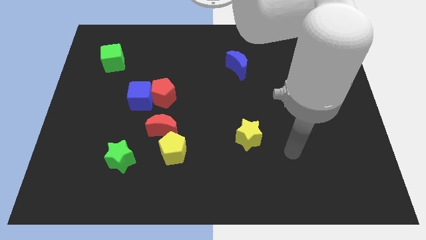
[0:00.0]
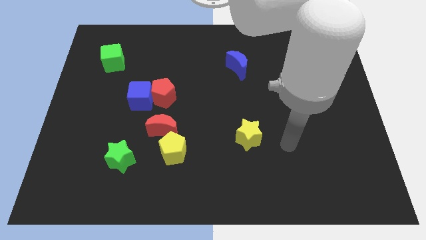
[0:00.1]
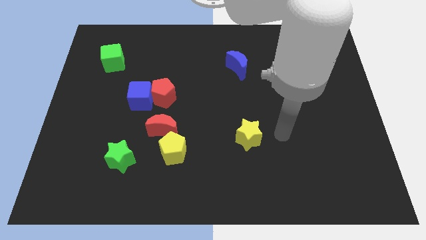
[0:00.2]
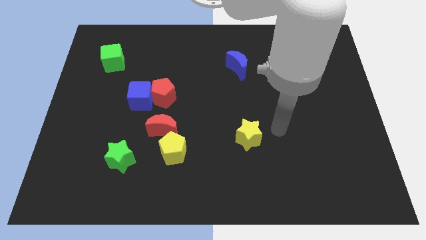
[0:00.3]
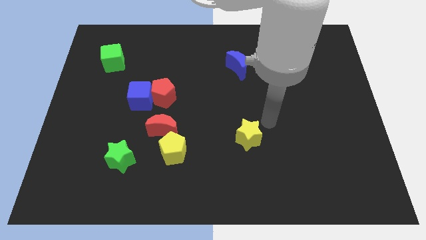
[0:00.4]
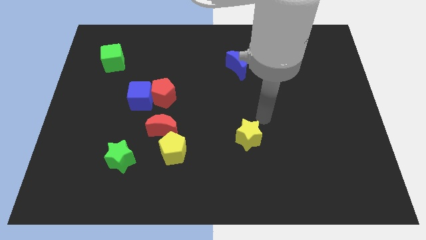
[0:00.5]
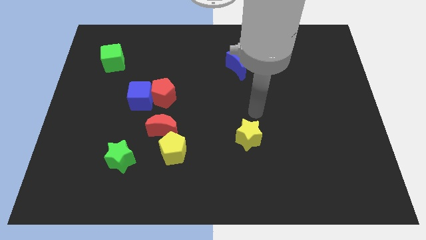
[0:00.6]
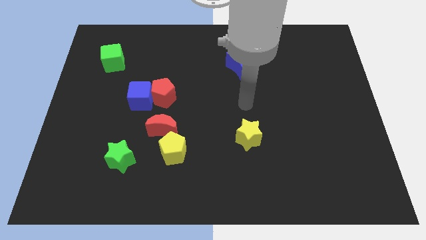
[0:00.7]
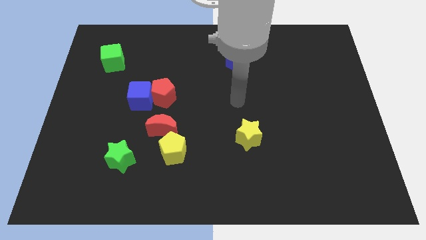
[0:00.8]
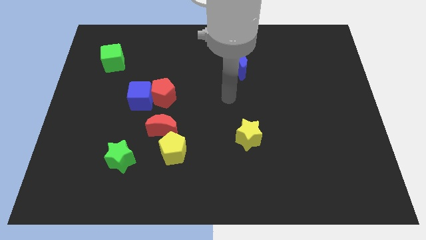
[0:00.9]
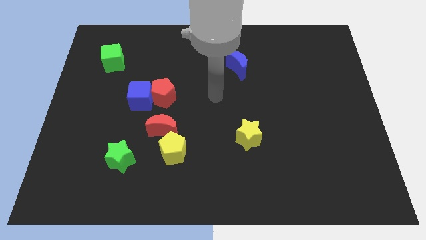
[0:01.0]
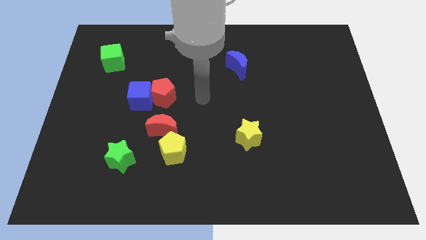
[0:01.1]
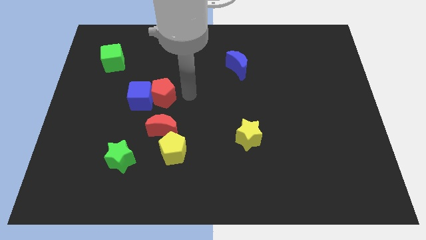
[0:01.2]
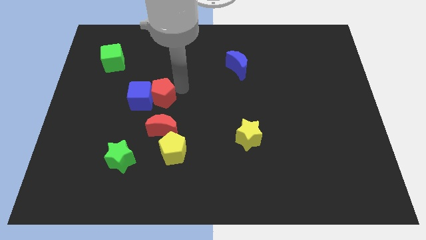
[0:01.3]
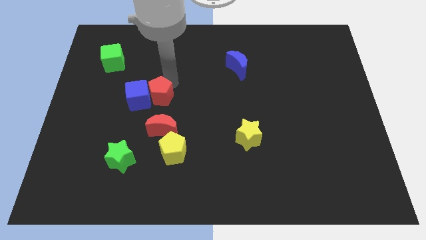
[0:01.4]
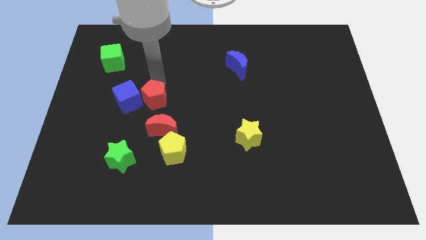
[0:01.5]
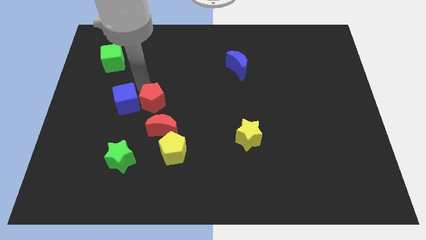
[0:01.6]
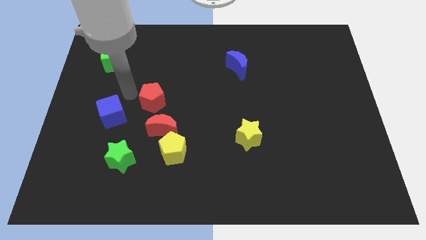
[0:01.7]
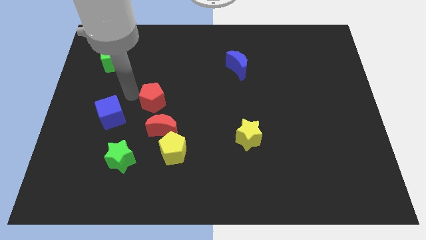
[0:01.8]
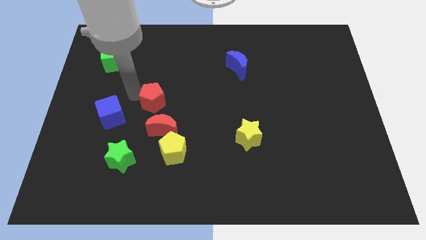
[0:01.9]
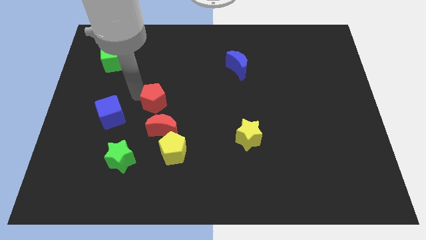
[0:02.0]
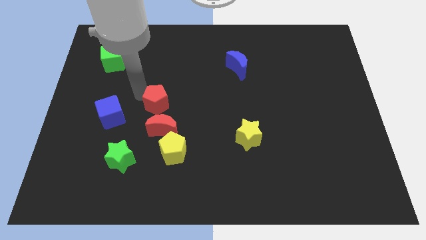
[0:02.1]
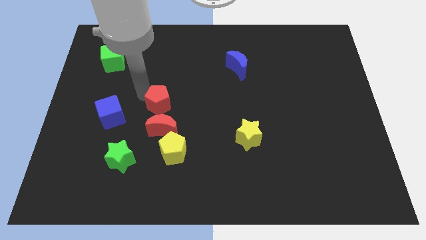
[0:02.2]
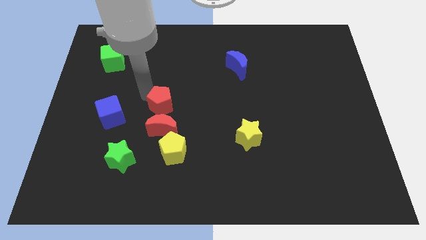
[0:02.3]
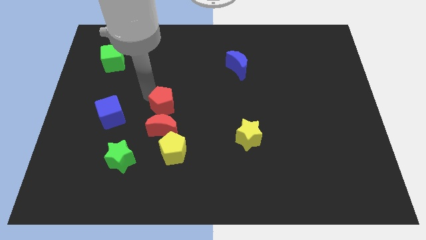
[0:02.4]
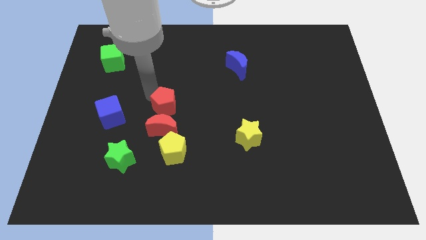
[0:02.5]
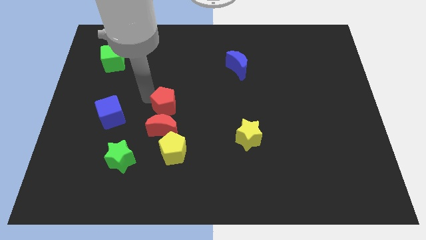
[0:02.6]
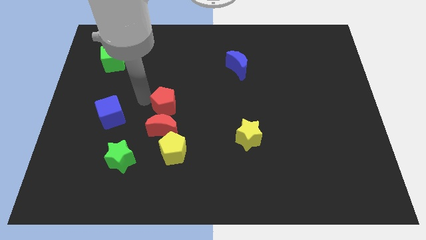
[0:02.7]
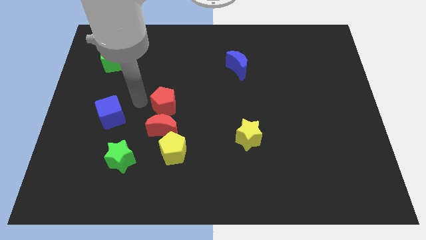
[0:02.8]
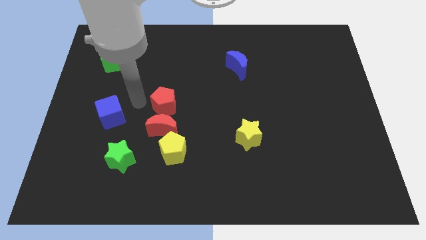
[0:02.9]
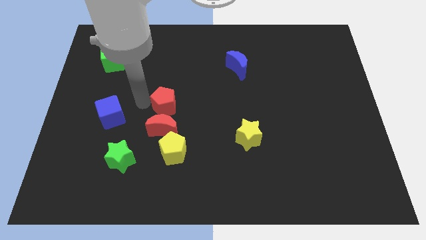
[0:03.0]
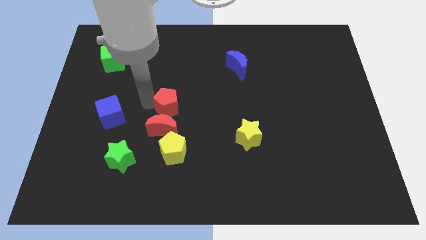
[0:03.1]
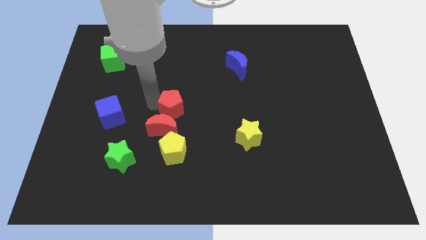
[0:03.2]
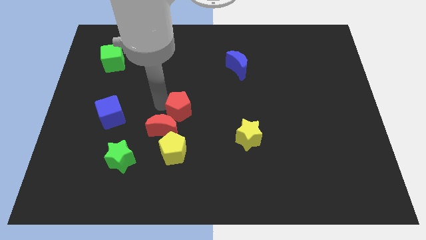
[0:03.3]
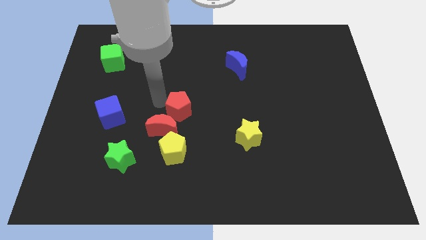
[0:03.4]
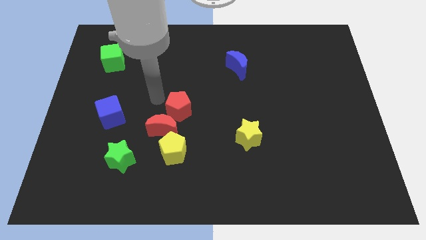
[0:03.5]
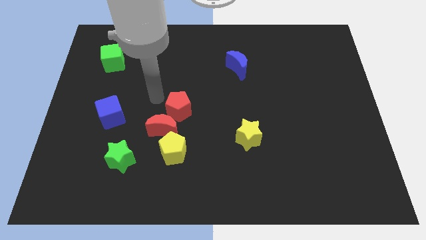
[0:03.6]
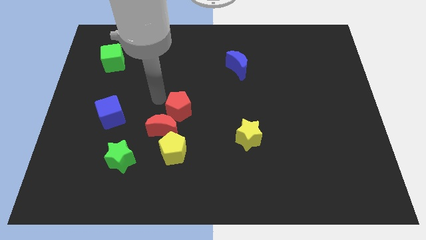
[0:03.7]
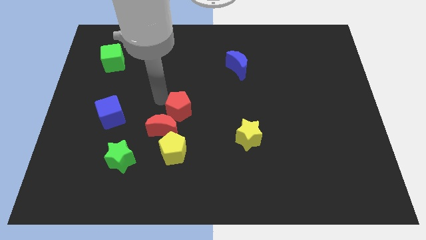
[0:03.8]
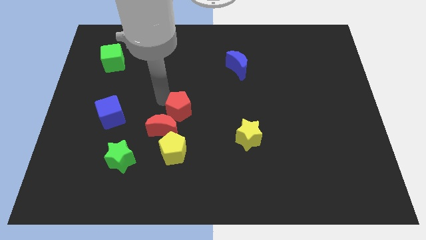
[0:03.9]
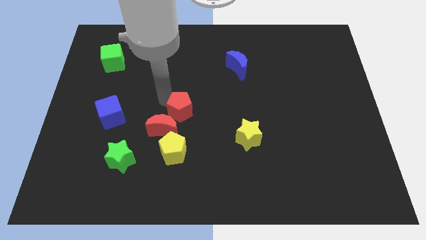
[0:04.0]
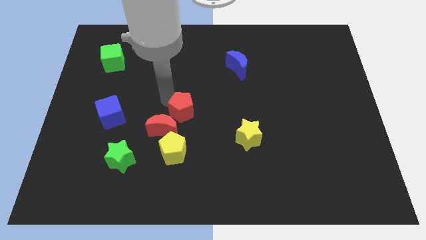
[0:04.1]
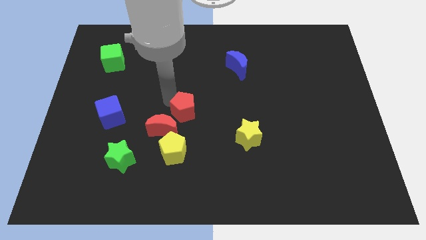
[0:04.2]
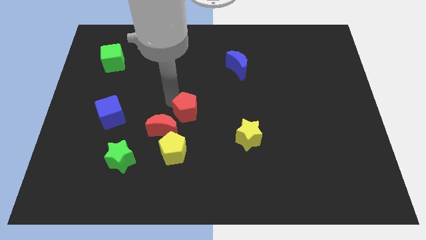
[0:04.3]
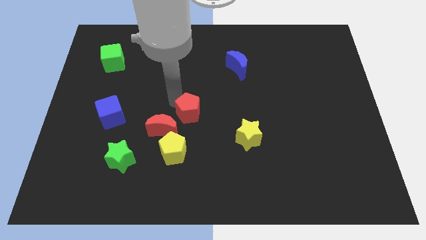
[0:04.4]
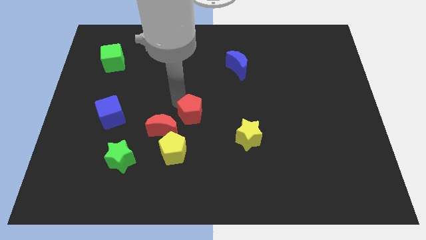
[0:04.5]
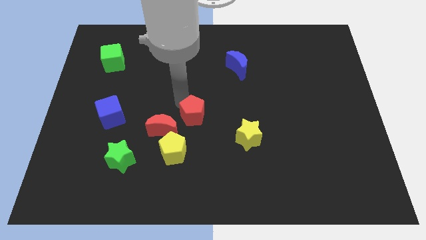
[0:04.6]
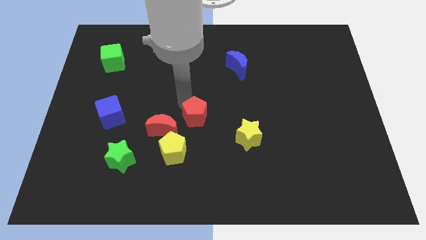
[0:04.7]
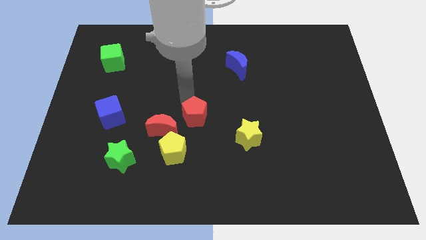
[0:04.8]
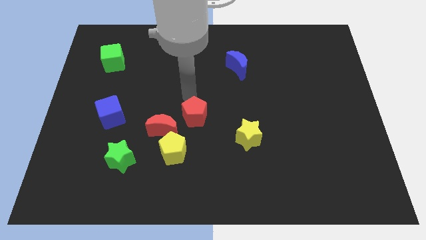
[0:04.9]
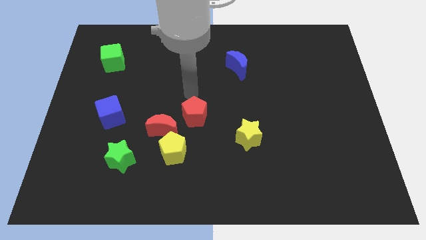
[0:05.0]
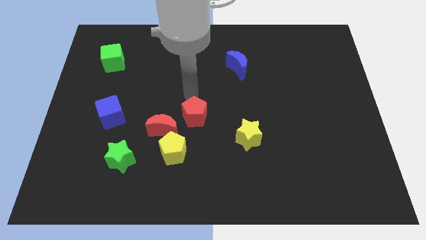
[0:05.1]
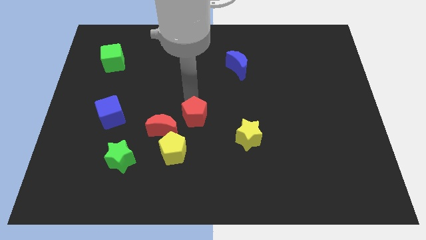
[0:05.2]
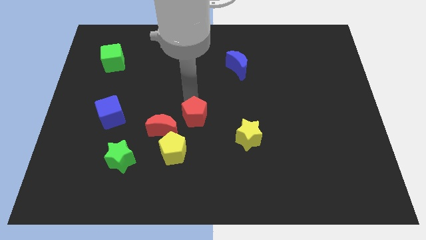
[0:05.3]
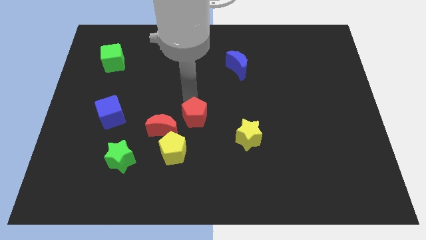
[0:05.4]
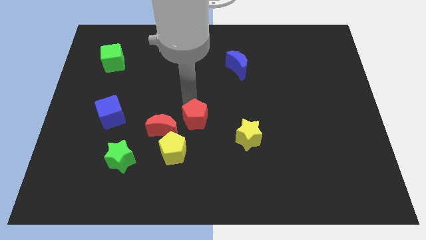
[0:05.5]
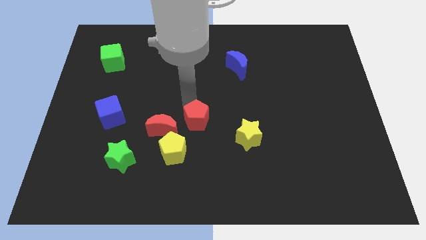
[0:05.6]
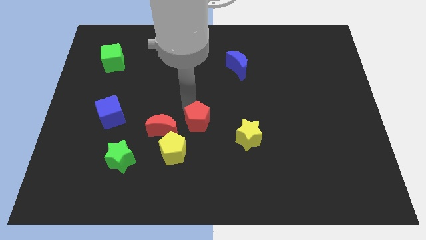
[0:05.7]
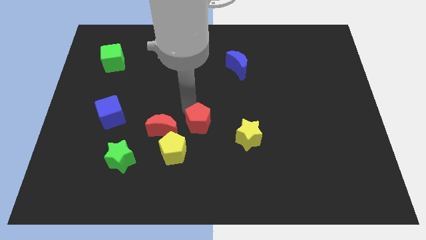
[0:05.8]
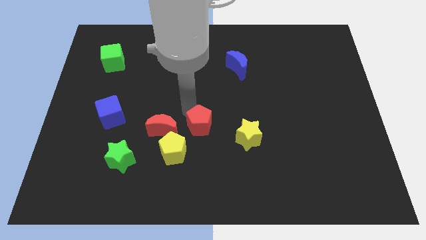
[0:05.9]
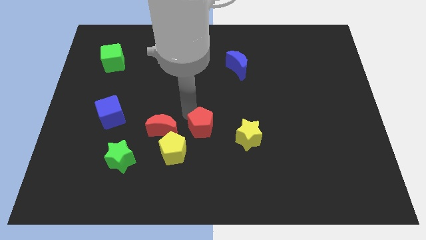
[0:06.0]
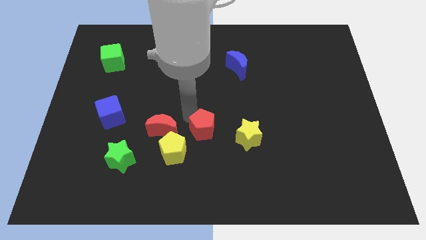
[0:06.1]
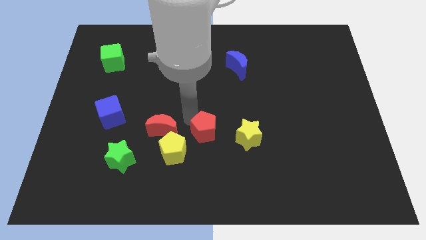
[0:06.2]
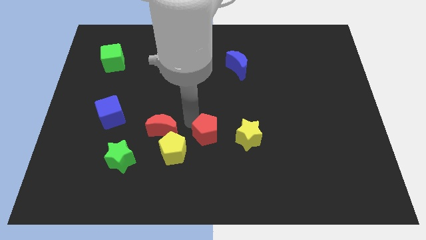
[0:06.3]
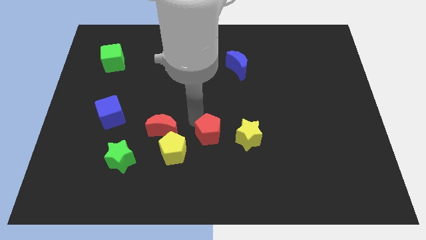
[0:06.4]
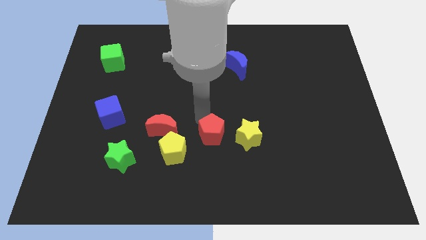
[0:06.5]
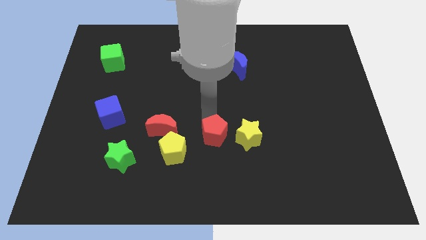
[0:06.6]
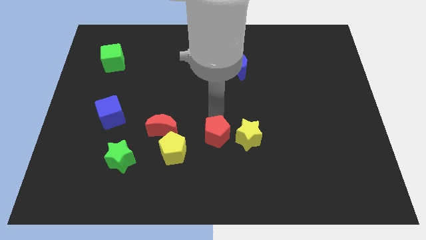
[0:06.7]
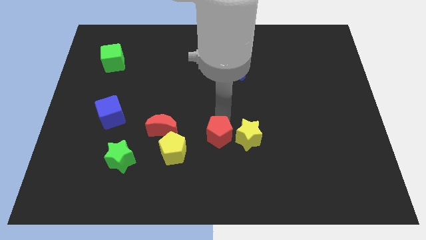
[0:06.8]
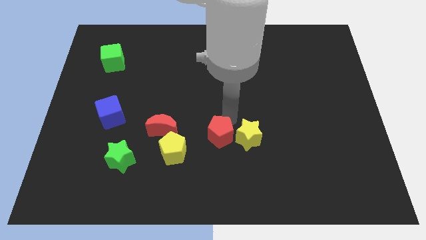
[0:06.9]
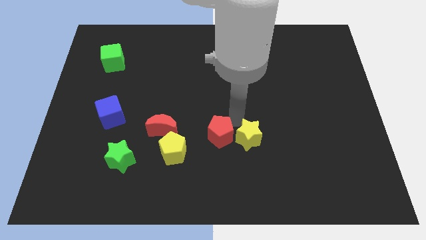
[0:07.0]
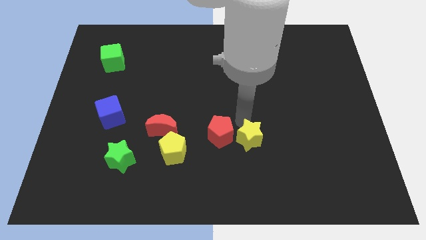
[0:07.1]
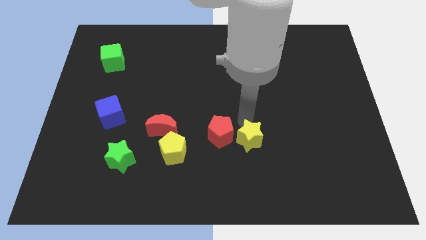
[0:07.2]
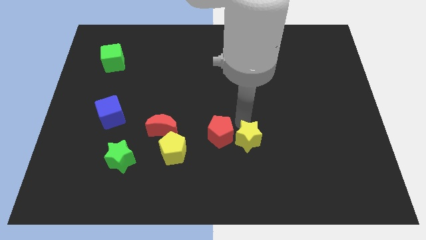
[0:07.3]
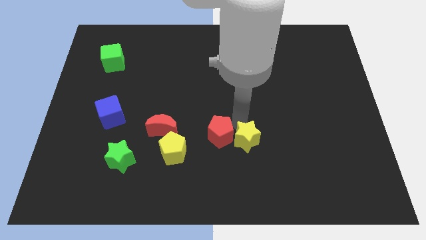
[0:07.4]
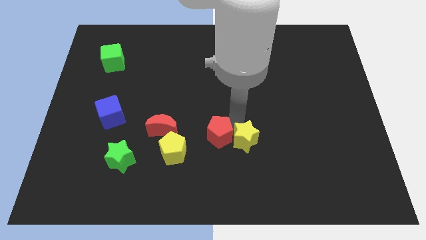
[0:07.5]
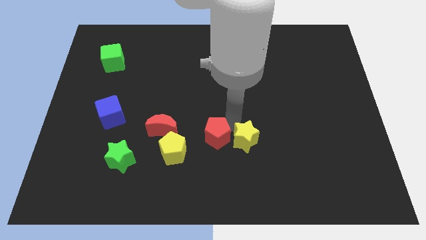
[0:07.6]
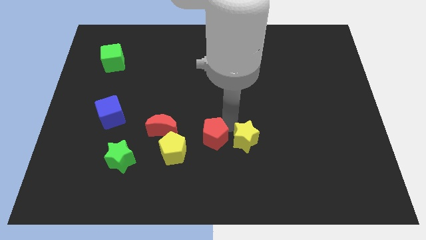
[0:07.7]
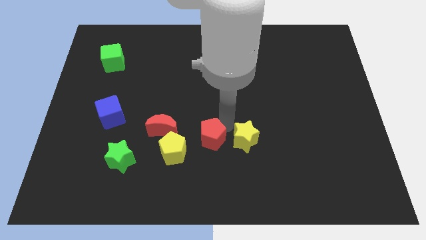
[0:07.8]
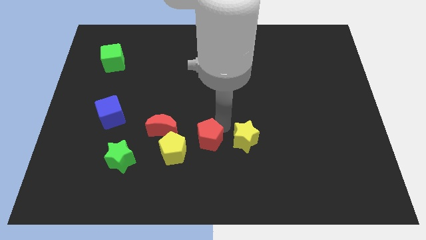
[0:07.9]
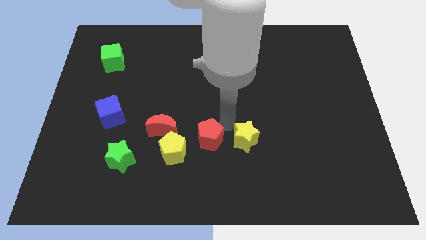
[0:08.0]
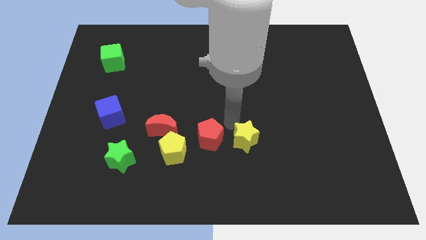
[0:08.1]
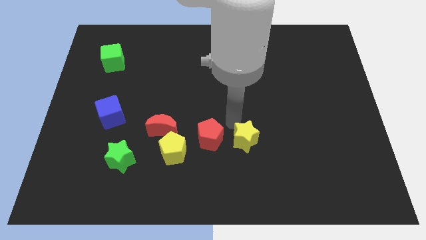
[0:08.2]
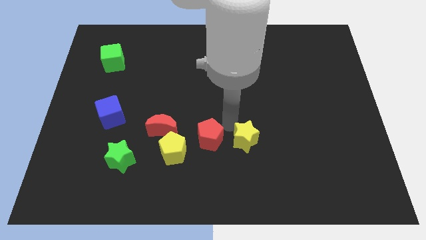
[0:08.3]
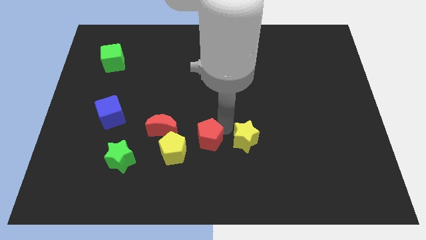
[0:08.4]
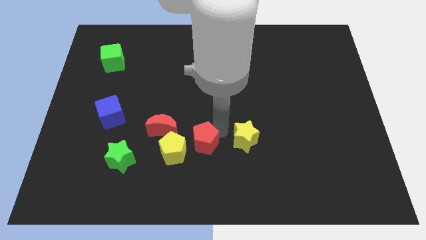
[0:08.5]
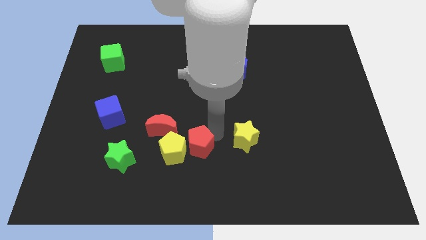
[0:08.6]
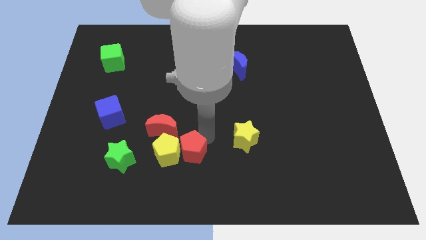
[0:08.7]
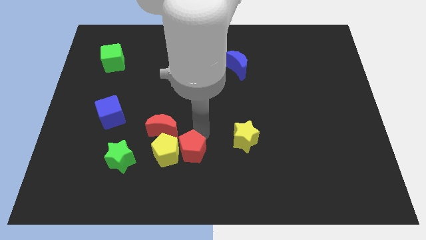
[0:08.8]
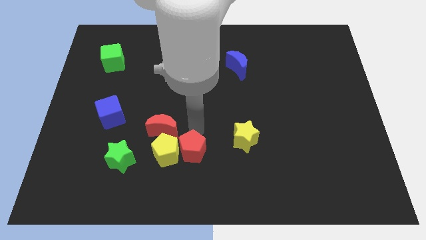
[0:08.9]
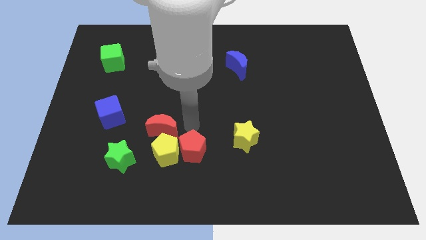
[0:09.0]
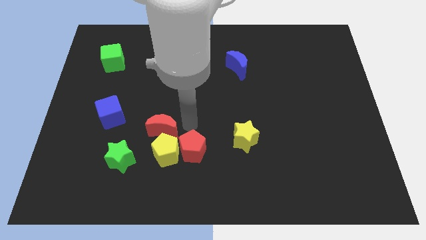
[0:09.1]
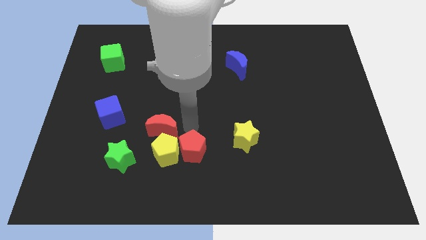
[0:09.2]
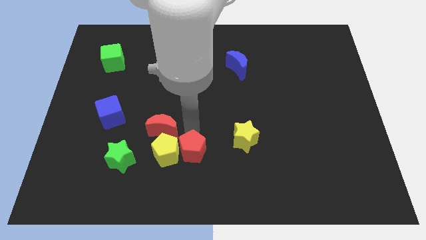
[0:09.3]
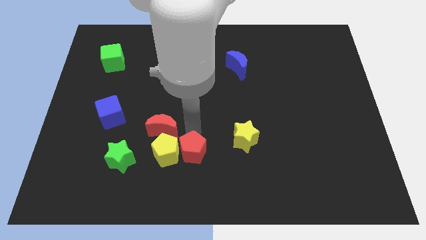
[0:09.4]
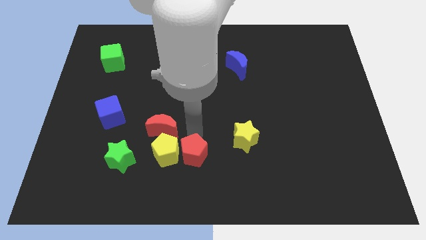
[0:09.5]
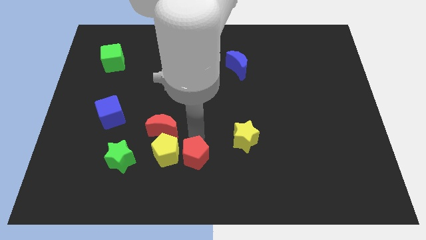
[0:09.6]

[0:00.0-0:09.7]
move the red pentagon to the bottom
